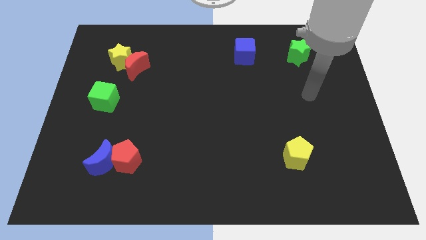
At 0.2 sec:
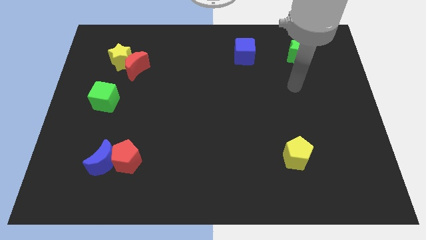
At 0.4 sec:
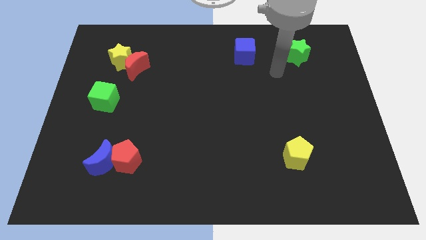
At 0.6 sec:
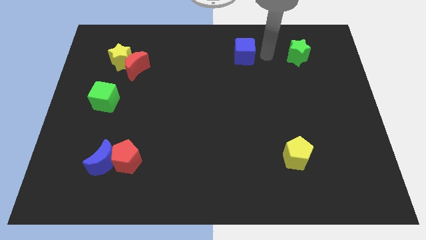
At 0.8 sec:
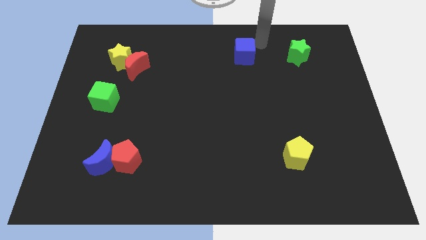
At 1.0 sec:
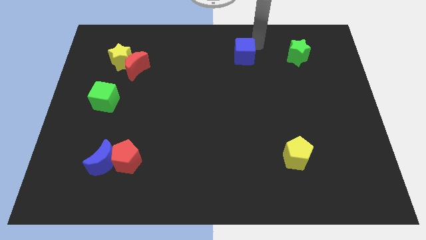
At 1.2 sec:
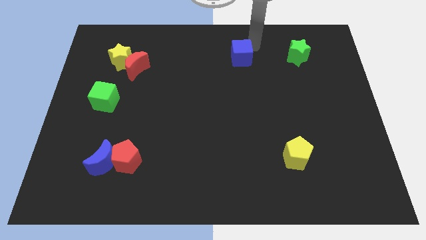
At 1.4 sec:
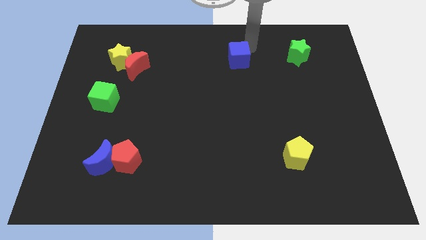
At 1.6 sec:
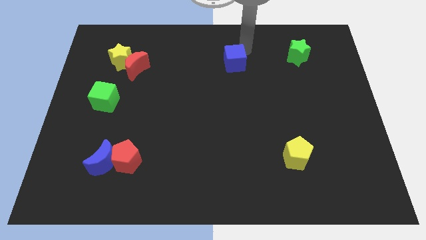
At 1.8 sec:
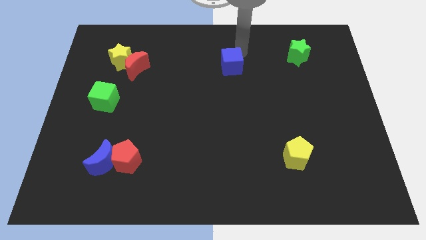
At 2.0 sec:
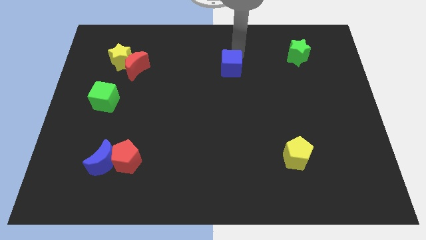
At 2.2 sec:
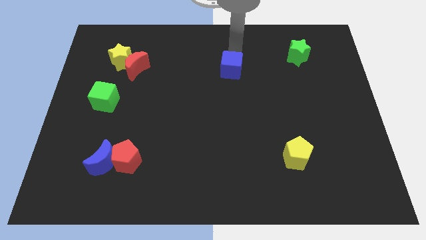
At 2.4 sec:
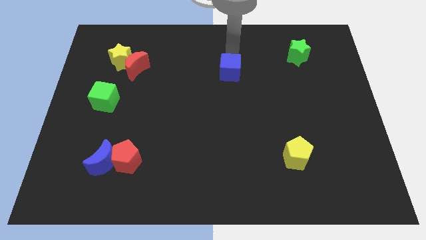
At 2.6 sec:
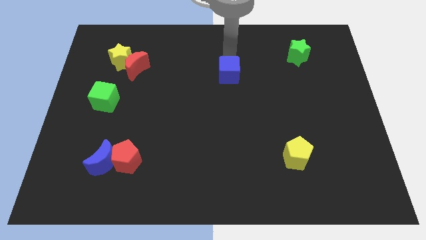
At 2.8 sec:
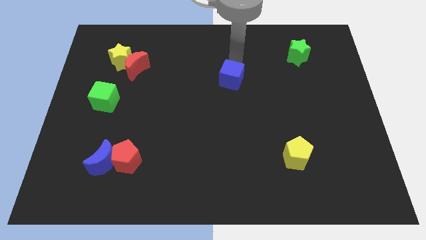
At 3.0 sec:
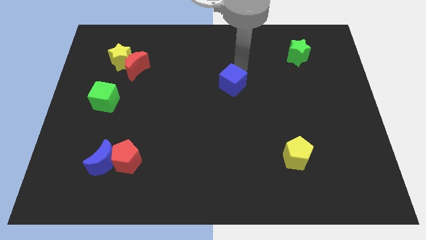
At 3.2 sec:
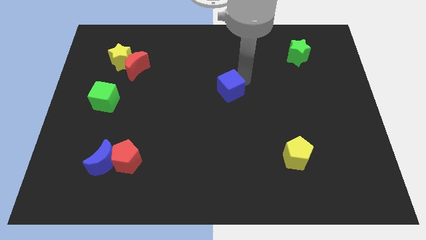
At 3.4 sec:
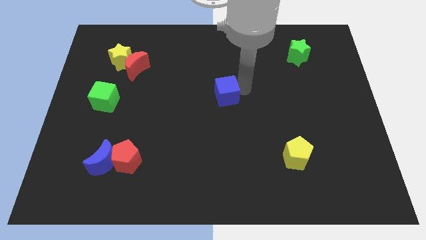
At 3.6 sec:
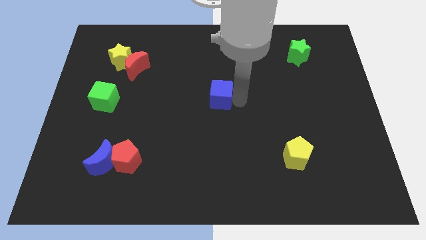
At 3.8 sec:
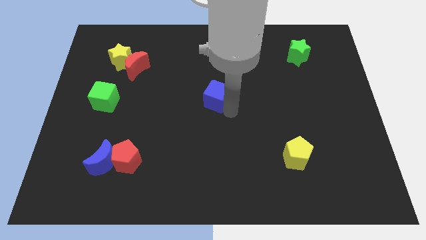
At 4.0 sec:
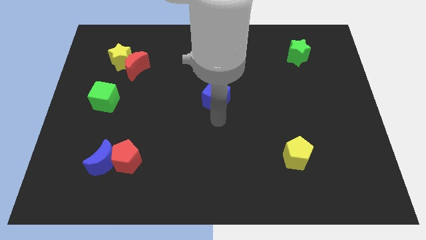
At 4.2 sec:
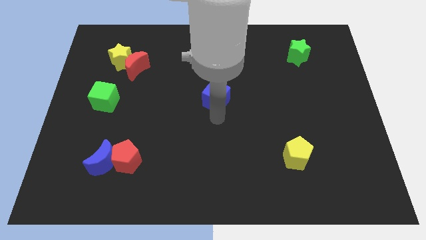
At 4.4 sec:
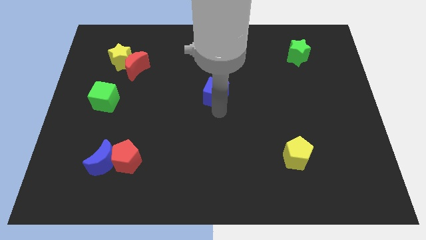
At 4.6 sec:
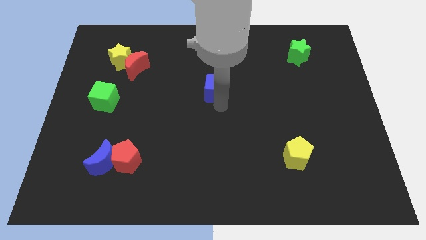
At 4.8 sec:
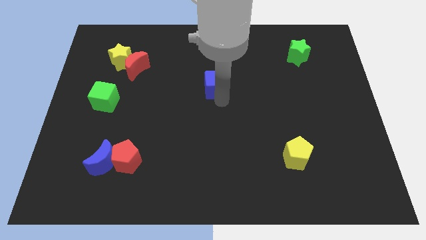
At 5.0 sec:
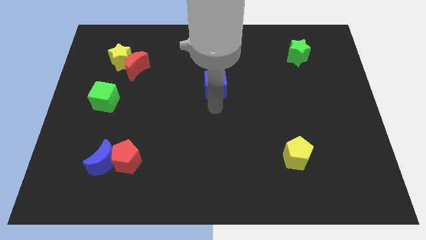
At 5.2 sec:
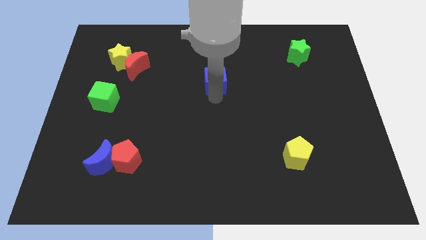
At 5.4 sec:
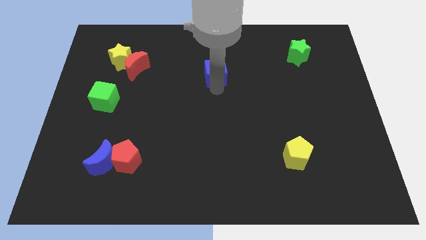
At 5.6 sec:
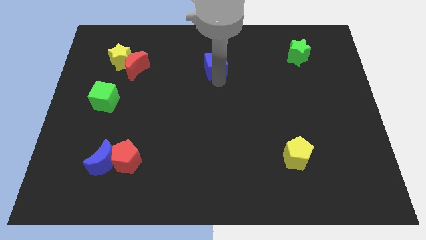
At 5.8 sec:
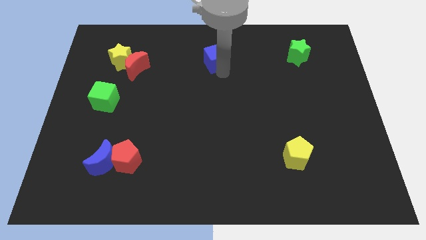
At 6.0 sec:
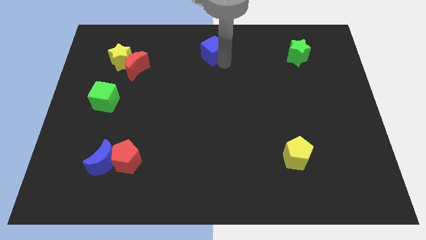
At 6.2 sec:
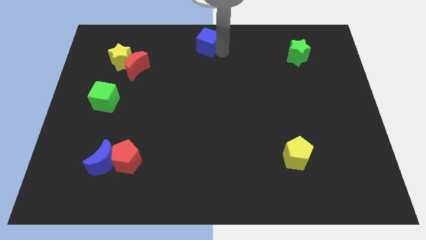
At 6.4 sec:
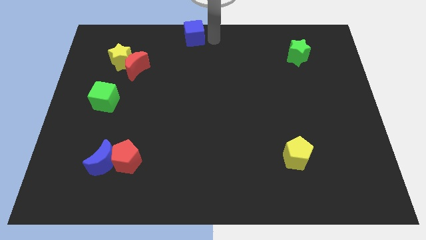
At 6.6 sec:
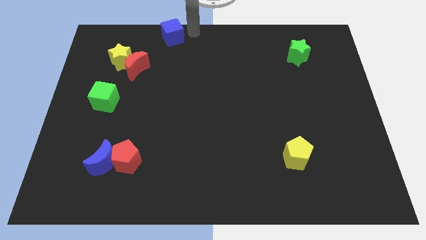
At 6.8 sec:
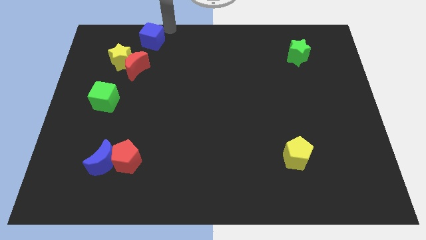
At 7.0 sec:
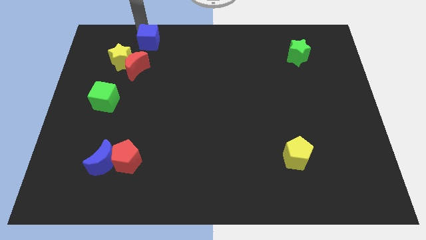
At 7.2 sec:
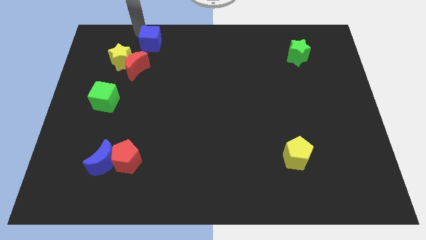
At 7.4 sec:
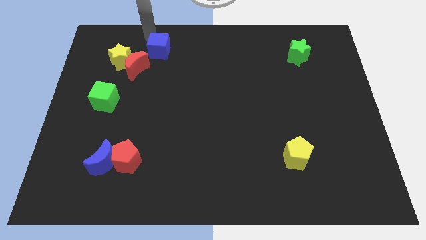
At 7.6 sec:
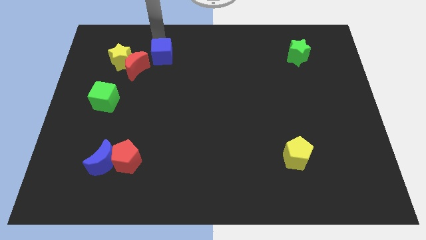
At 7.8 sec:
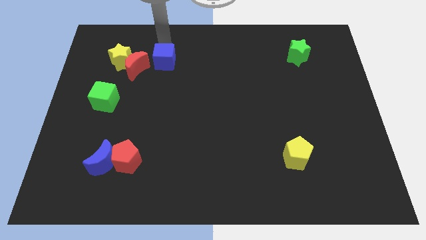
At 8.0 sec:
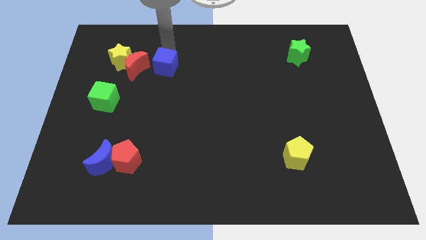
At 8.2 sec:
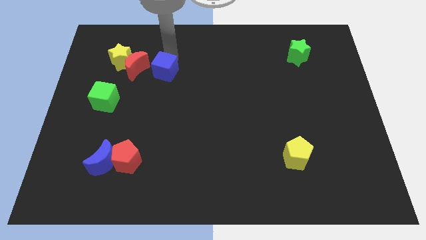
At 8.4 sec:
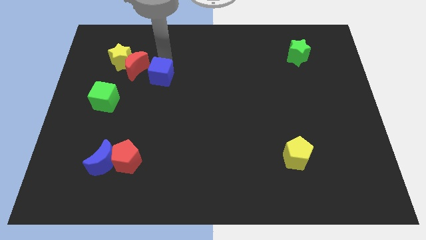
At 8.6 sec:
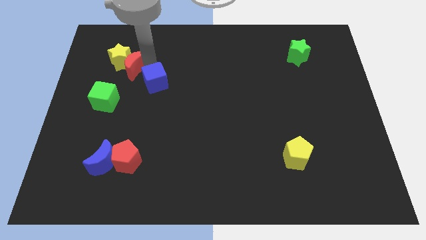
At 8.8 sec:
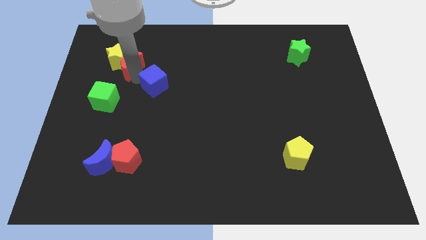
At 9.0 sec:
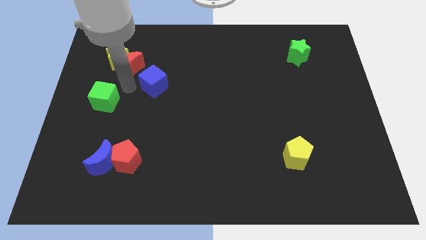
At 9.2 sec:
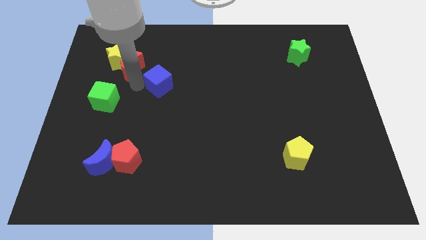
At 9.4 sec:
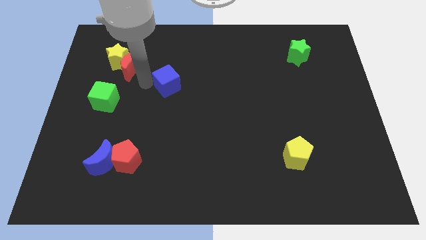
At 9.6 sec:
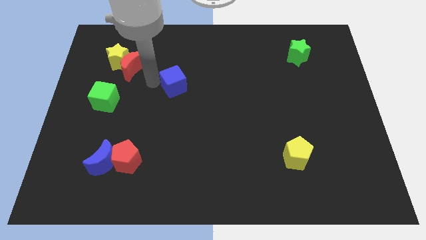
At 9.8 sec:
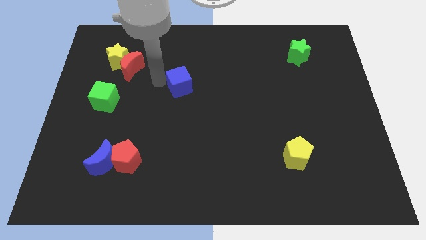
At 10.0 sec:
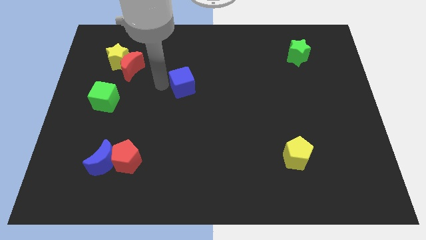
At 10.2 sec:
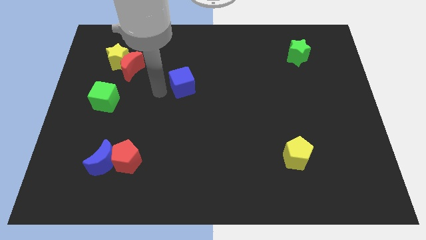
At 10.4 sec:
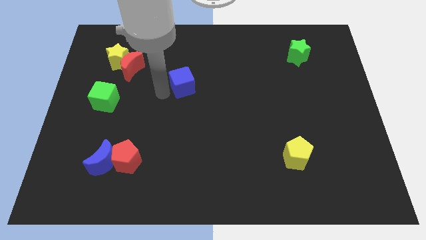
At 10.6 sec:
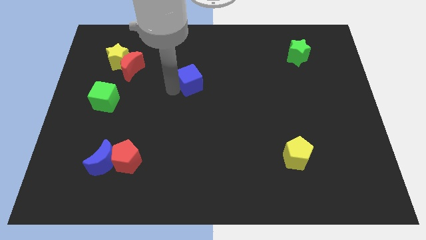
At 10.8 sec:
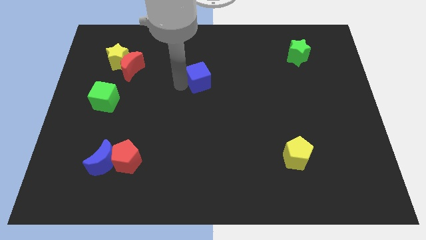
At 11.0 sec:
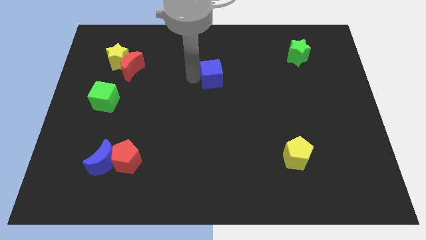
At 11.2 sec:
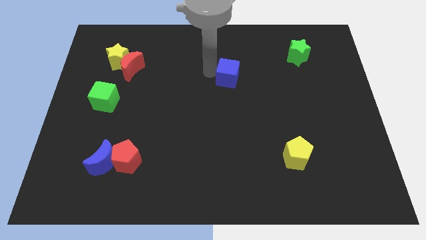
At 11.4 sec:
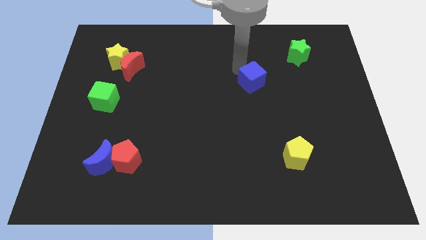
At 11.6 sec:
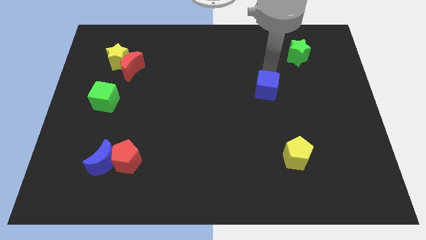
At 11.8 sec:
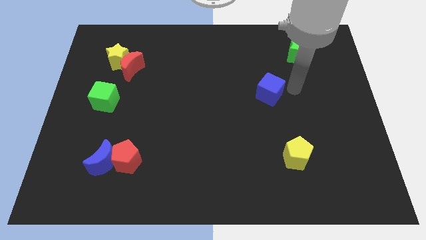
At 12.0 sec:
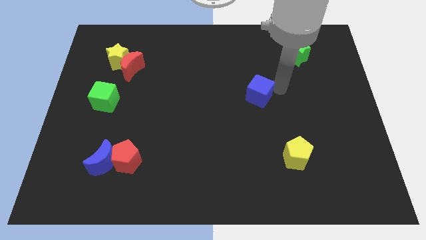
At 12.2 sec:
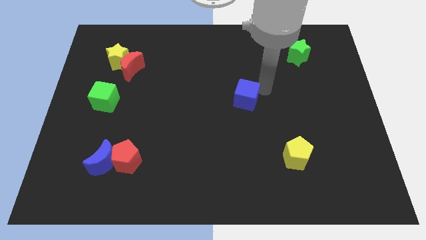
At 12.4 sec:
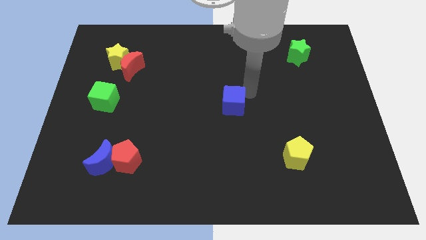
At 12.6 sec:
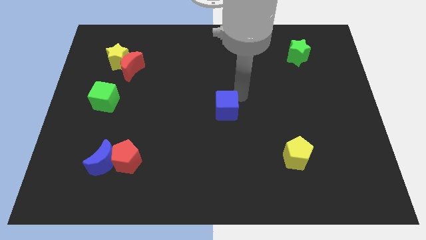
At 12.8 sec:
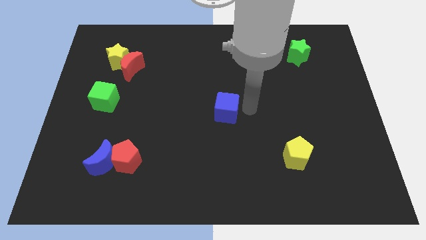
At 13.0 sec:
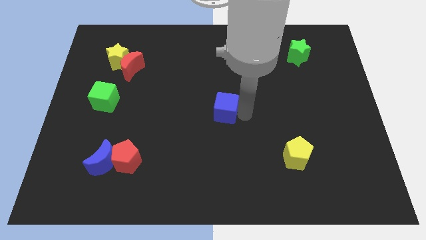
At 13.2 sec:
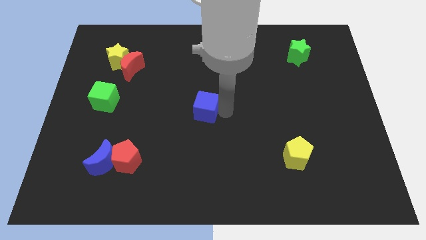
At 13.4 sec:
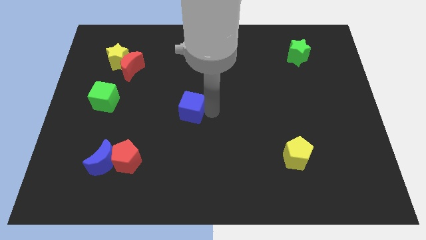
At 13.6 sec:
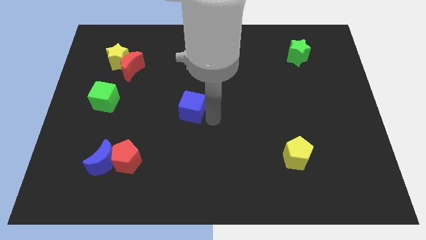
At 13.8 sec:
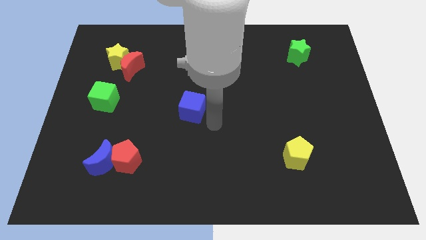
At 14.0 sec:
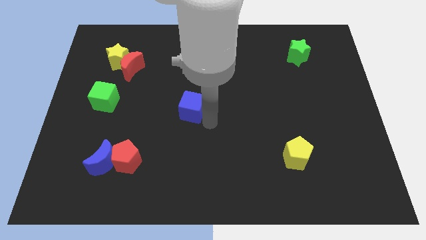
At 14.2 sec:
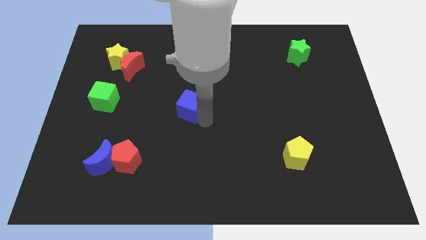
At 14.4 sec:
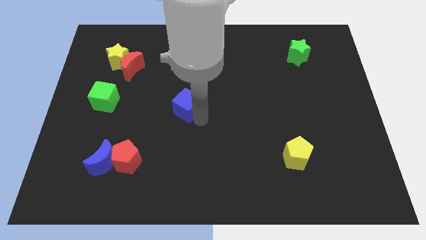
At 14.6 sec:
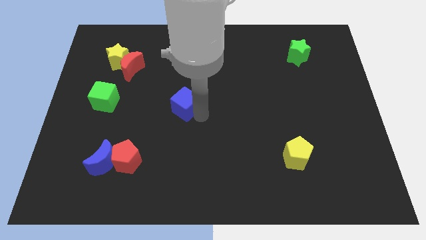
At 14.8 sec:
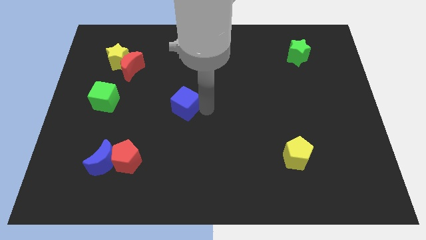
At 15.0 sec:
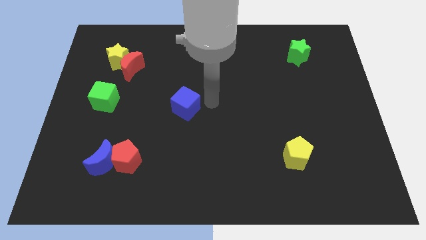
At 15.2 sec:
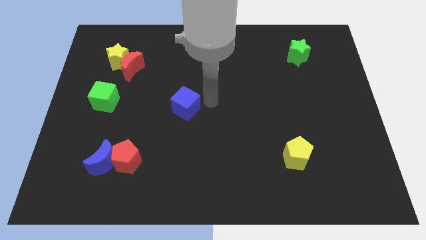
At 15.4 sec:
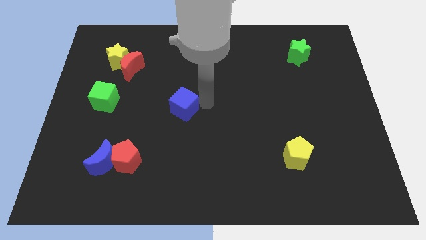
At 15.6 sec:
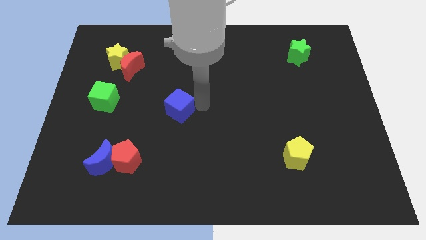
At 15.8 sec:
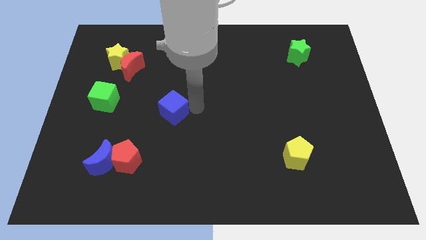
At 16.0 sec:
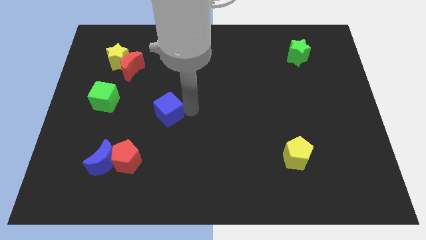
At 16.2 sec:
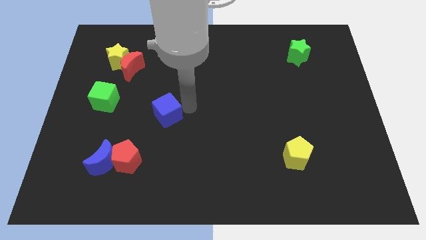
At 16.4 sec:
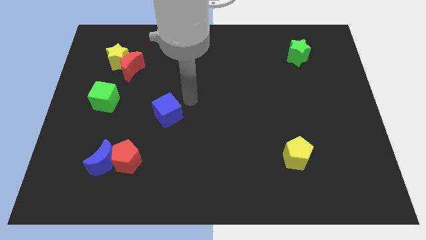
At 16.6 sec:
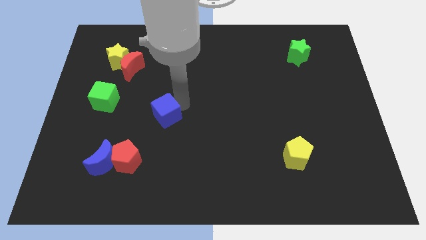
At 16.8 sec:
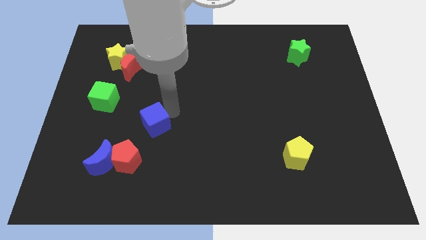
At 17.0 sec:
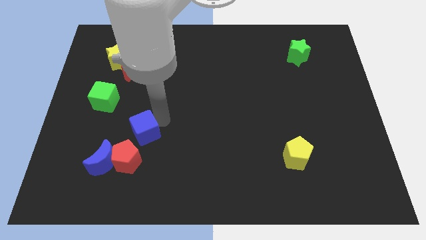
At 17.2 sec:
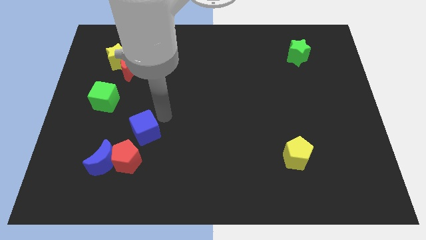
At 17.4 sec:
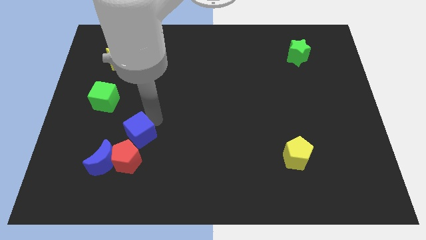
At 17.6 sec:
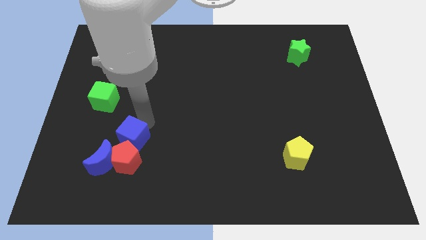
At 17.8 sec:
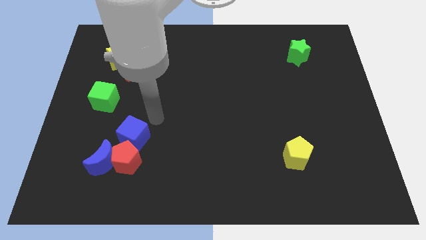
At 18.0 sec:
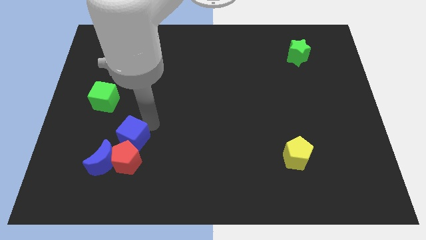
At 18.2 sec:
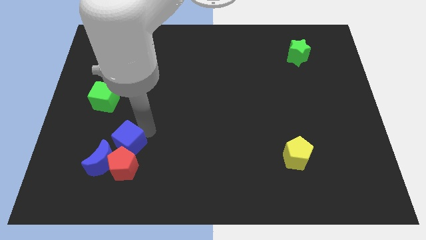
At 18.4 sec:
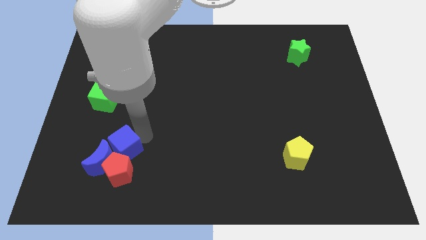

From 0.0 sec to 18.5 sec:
put the blue cube next to the blue moon
